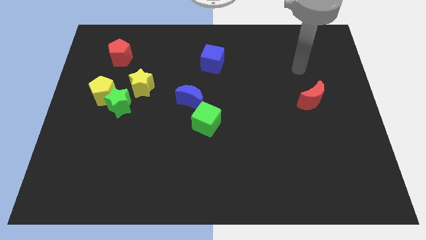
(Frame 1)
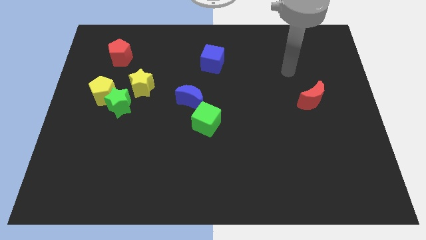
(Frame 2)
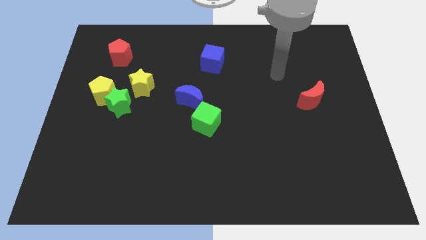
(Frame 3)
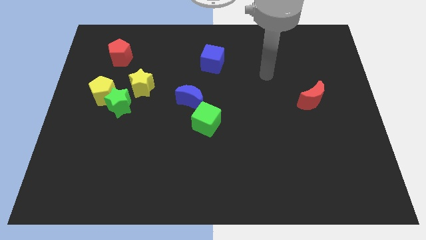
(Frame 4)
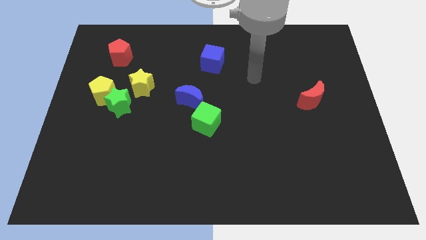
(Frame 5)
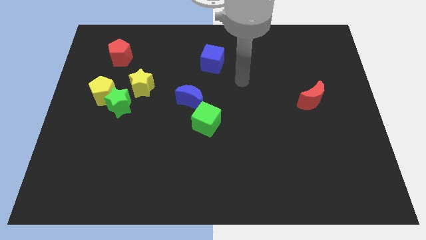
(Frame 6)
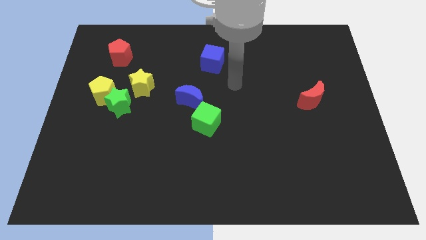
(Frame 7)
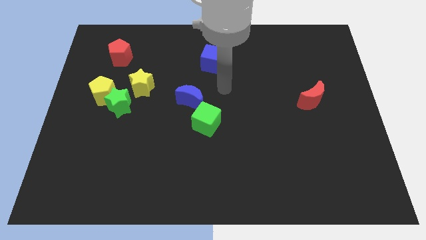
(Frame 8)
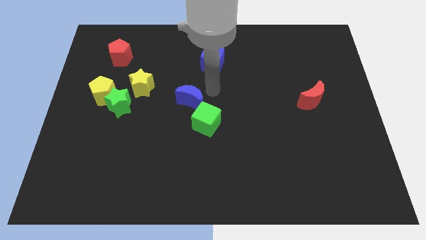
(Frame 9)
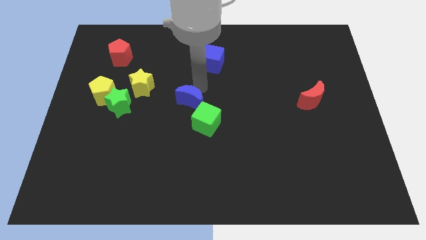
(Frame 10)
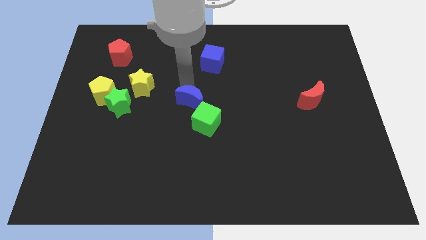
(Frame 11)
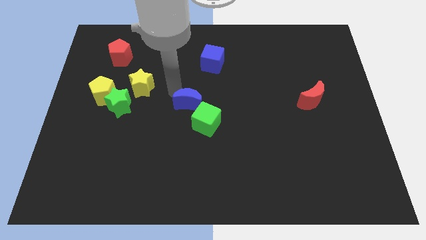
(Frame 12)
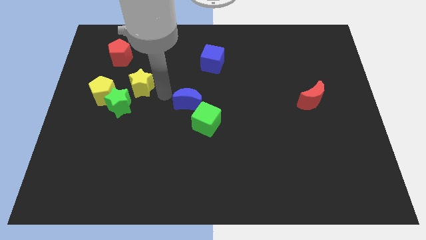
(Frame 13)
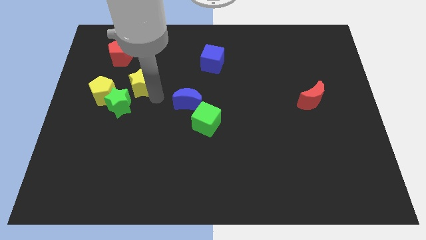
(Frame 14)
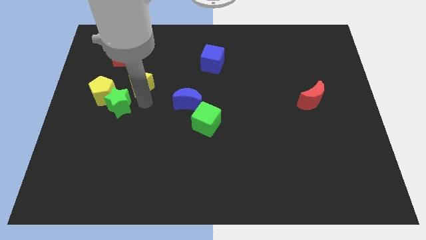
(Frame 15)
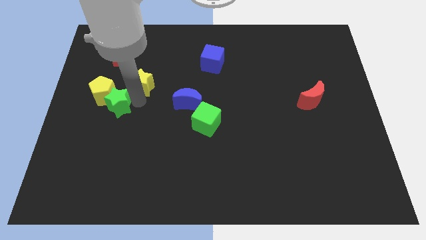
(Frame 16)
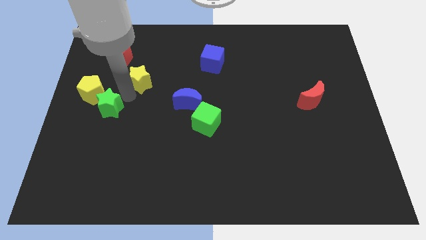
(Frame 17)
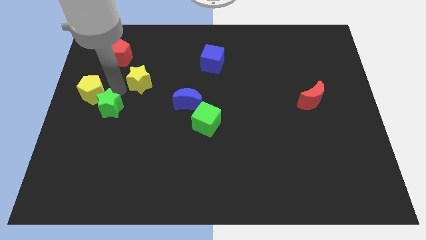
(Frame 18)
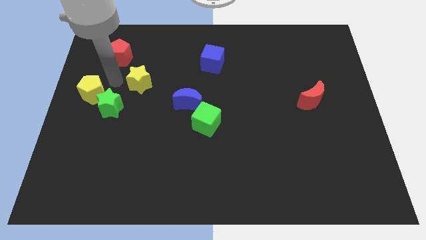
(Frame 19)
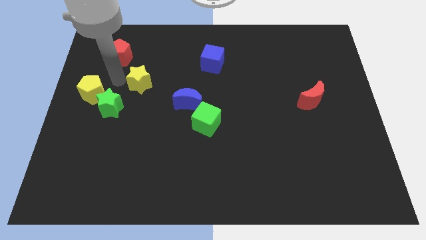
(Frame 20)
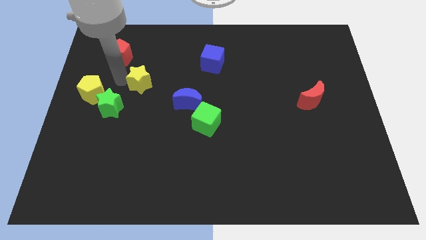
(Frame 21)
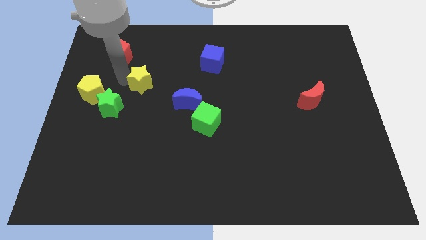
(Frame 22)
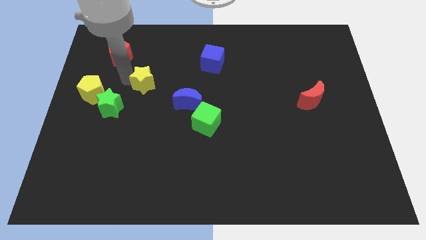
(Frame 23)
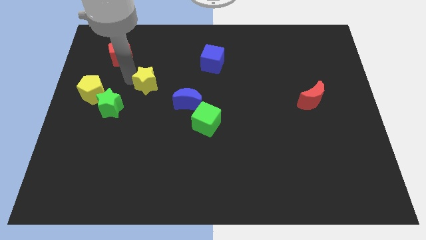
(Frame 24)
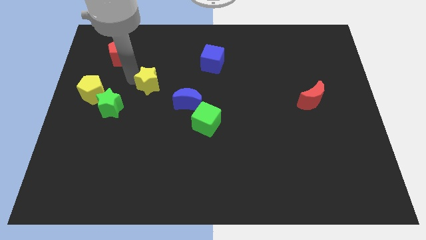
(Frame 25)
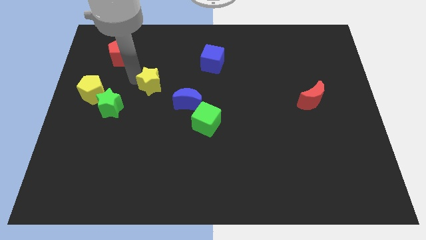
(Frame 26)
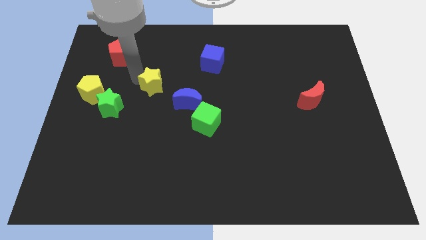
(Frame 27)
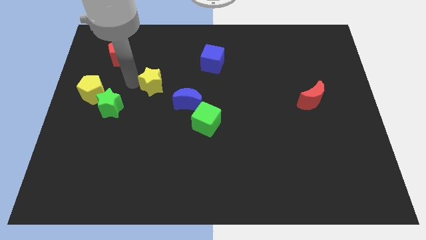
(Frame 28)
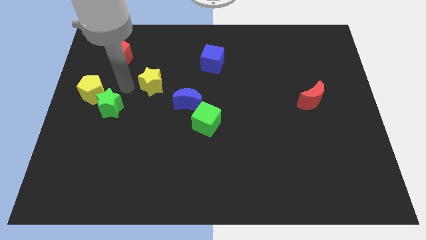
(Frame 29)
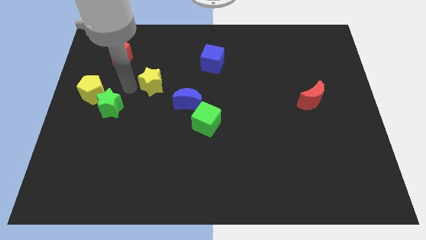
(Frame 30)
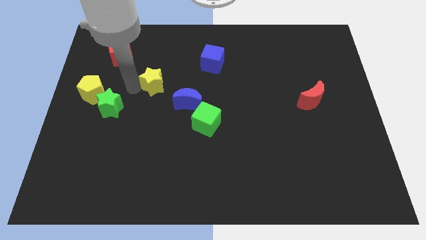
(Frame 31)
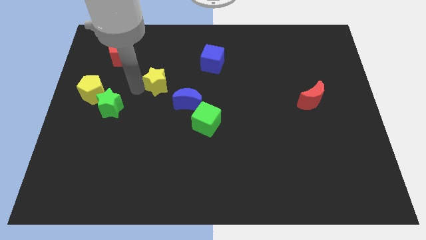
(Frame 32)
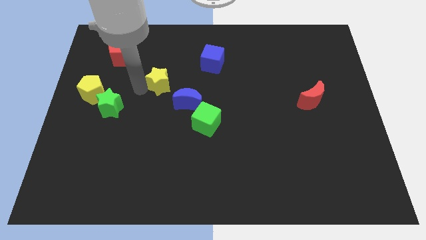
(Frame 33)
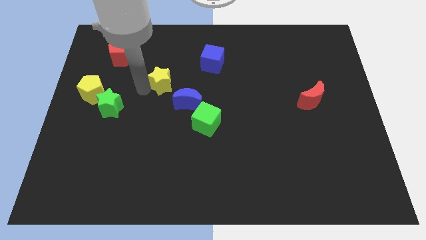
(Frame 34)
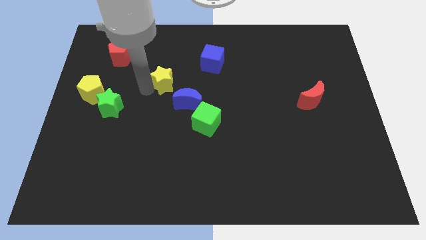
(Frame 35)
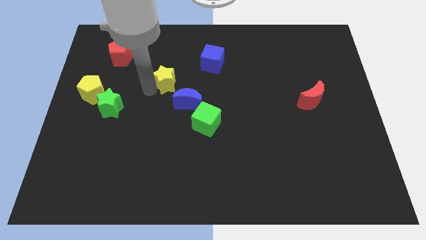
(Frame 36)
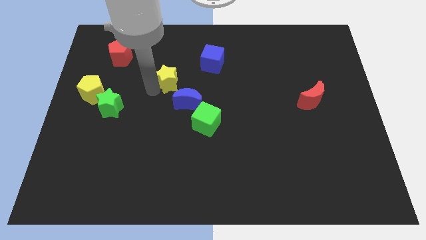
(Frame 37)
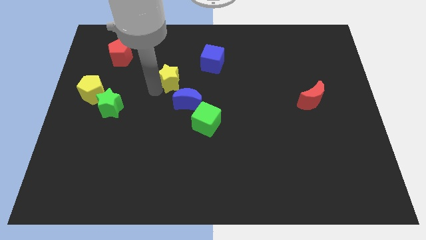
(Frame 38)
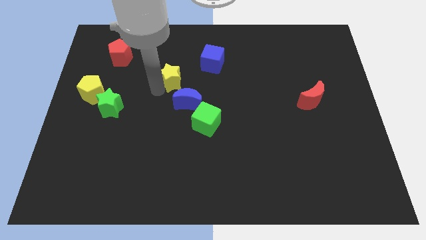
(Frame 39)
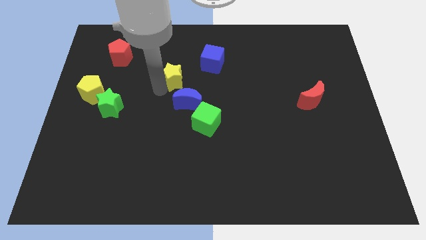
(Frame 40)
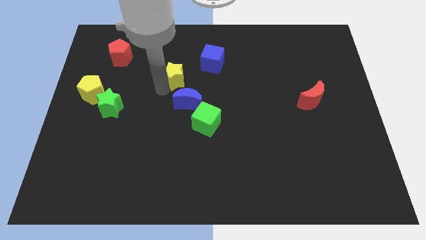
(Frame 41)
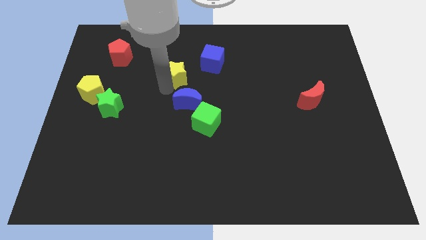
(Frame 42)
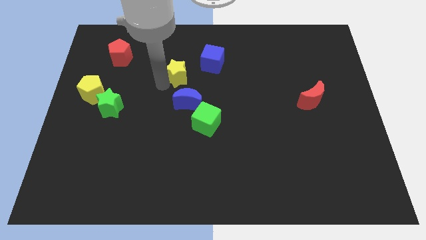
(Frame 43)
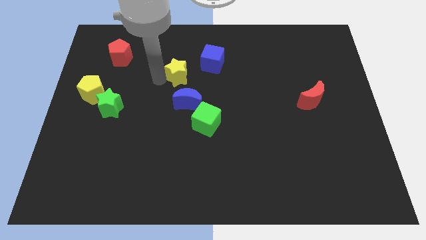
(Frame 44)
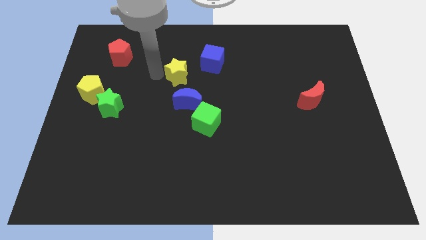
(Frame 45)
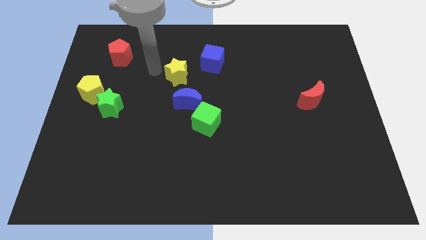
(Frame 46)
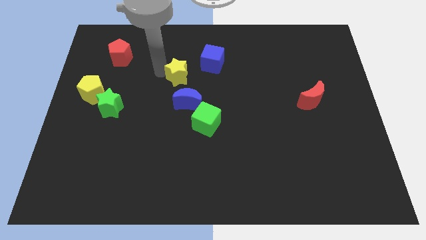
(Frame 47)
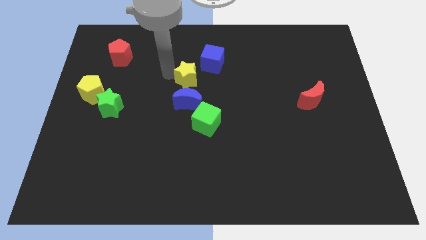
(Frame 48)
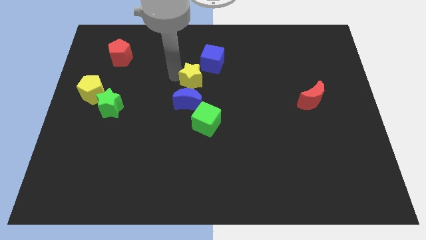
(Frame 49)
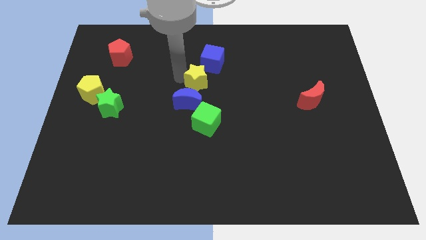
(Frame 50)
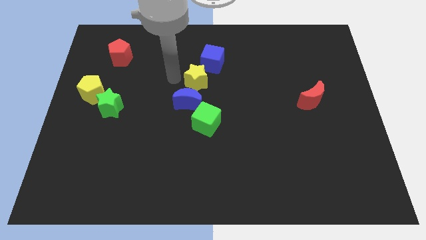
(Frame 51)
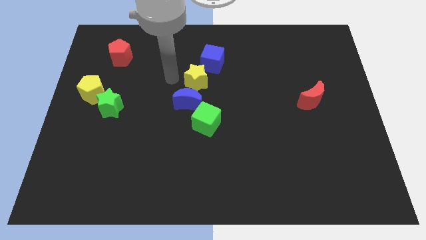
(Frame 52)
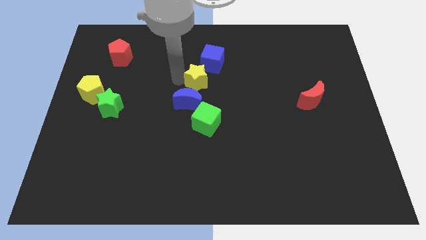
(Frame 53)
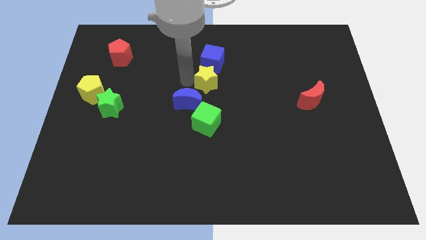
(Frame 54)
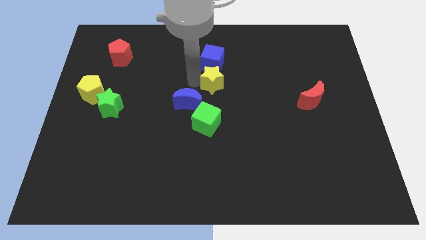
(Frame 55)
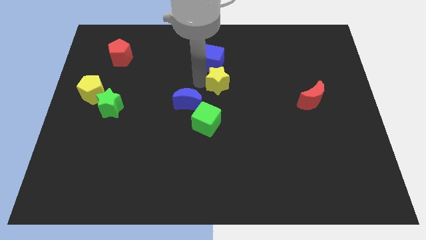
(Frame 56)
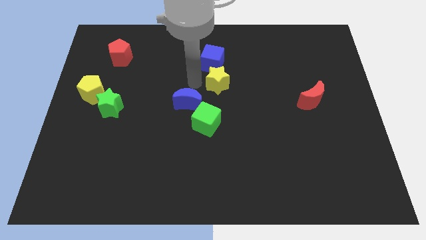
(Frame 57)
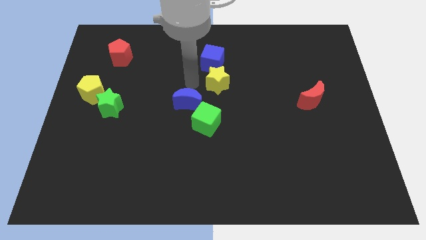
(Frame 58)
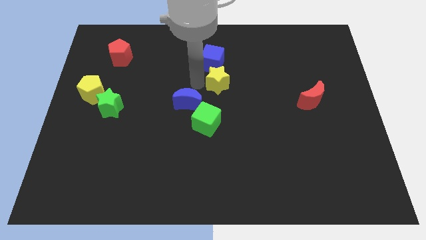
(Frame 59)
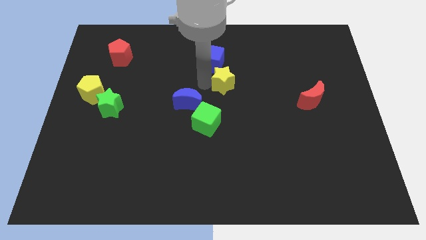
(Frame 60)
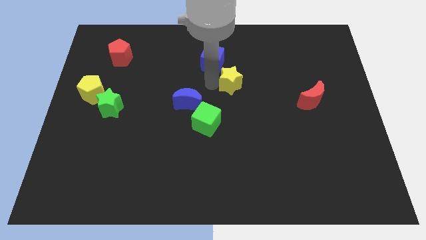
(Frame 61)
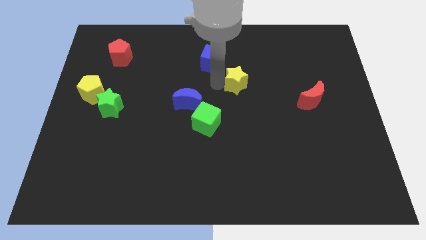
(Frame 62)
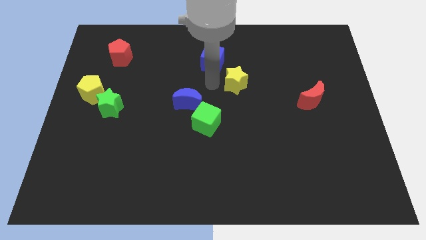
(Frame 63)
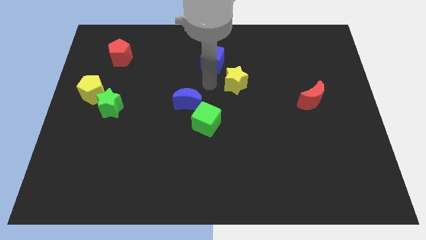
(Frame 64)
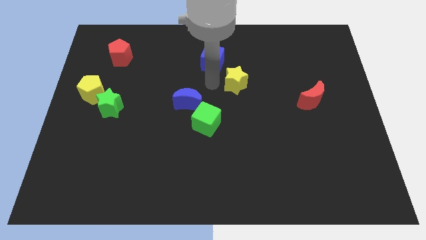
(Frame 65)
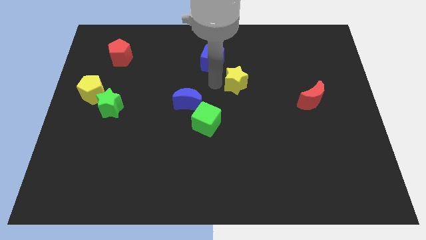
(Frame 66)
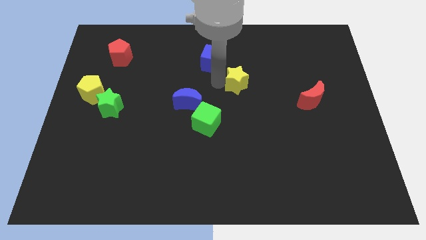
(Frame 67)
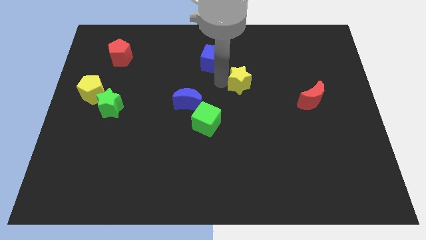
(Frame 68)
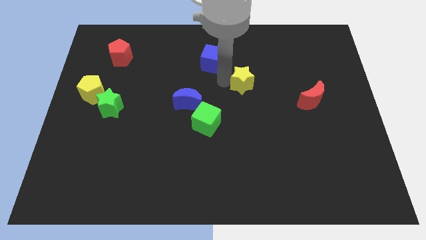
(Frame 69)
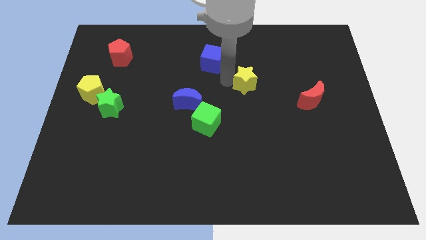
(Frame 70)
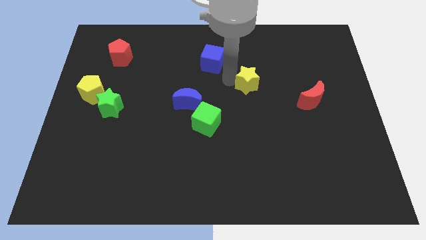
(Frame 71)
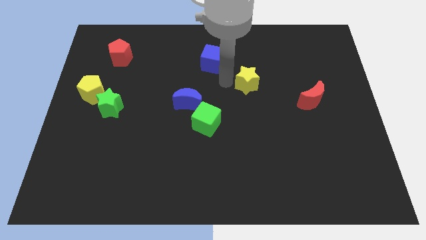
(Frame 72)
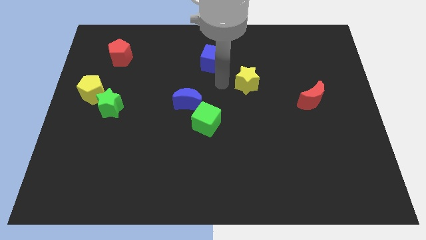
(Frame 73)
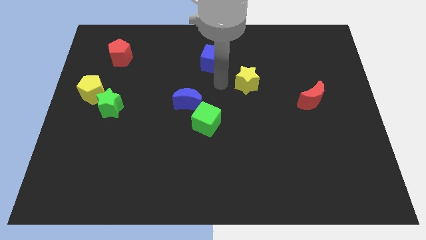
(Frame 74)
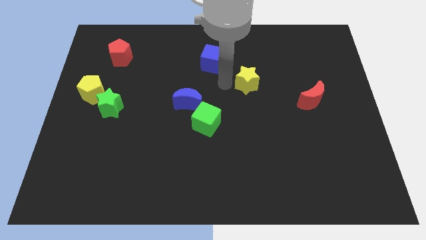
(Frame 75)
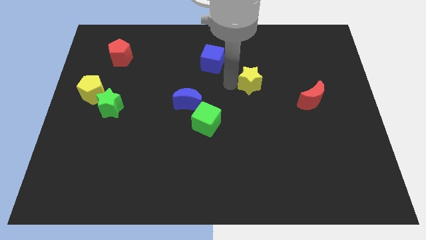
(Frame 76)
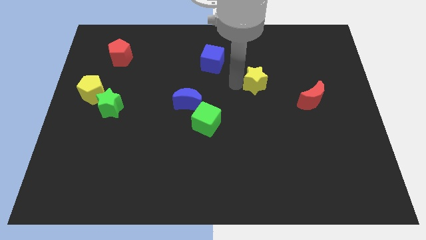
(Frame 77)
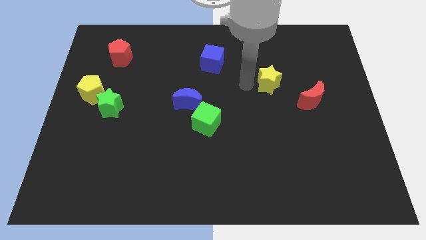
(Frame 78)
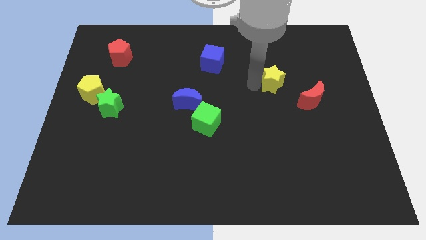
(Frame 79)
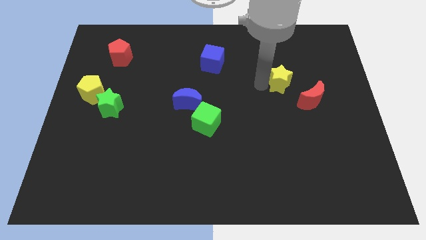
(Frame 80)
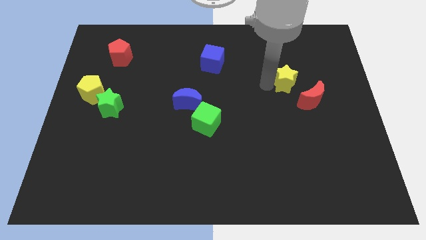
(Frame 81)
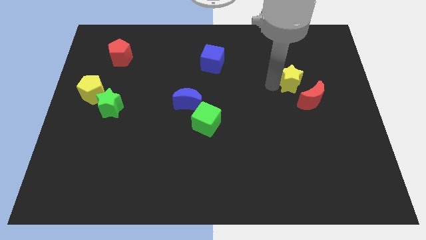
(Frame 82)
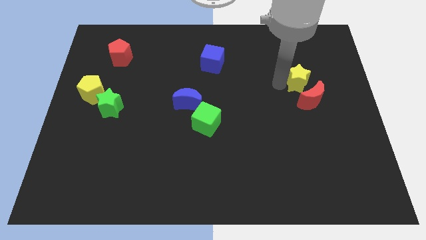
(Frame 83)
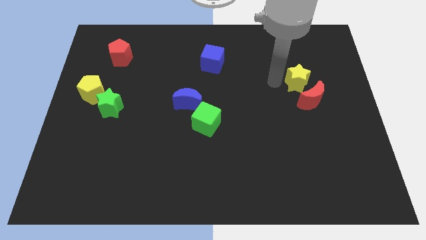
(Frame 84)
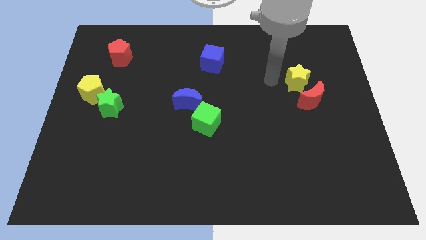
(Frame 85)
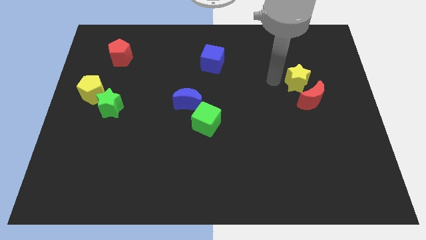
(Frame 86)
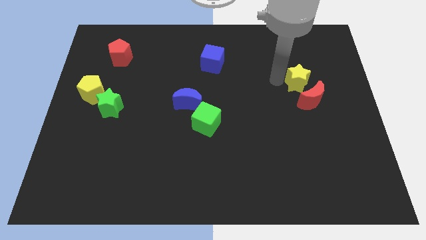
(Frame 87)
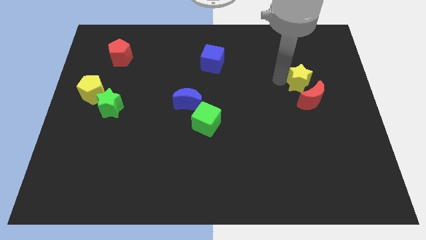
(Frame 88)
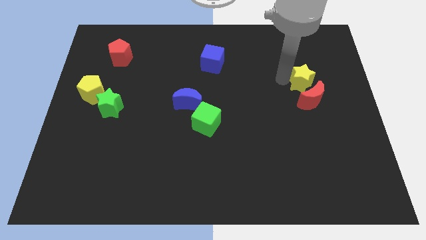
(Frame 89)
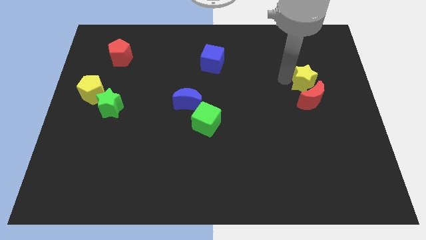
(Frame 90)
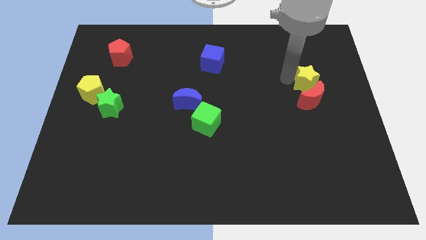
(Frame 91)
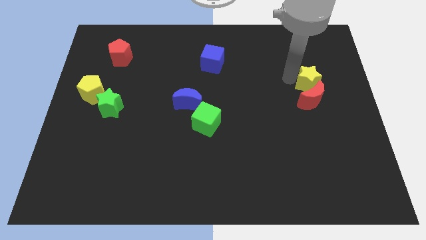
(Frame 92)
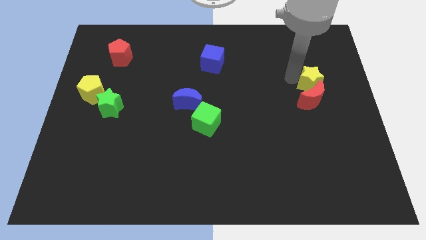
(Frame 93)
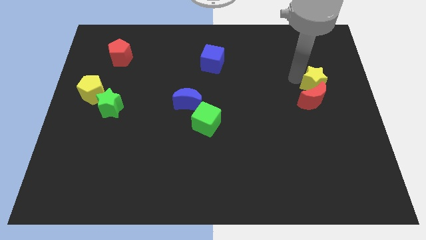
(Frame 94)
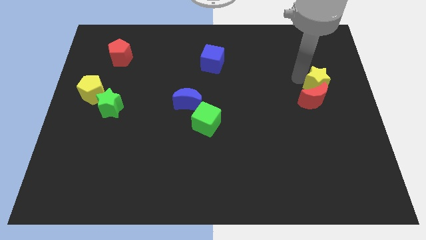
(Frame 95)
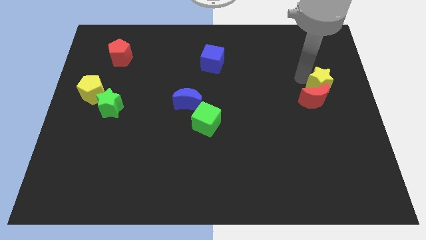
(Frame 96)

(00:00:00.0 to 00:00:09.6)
put the yellow star to the right side
